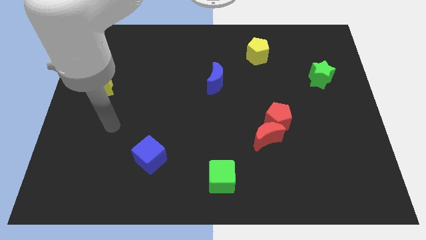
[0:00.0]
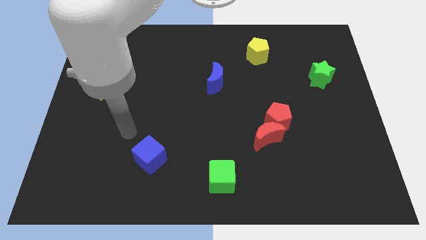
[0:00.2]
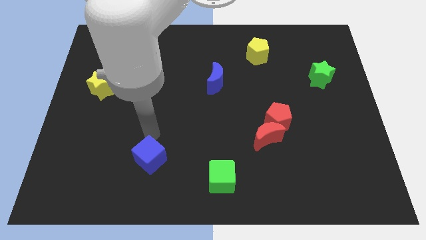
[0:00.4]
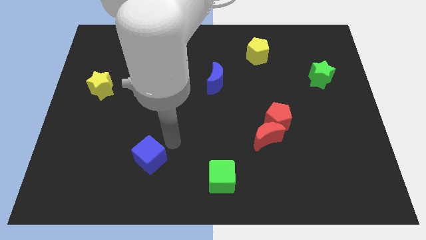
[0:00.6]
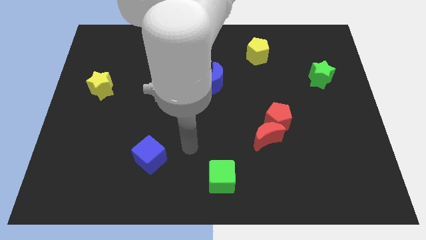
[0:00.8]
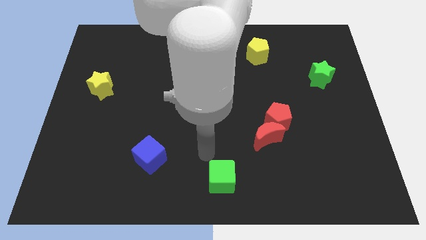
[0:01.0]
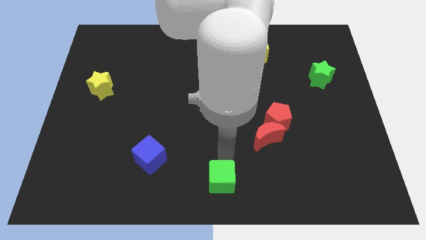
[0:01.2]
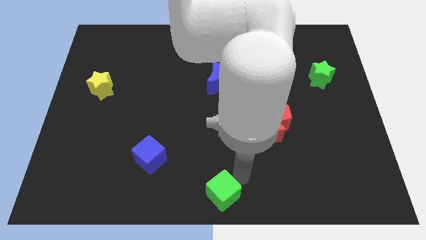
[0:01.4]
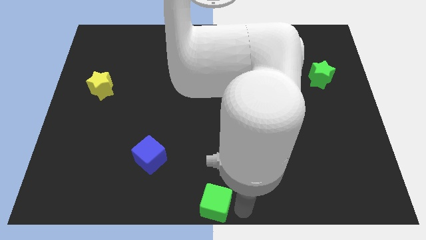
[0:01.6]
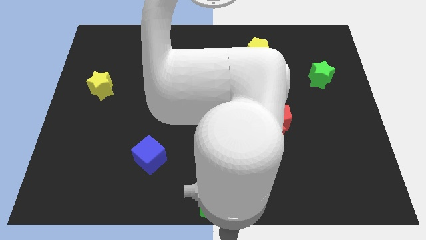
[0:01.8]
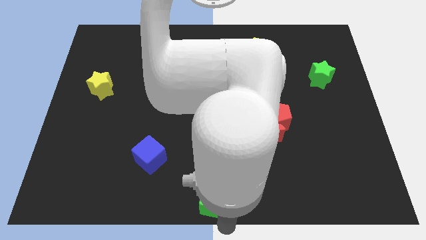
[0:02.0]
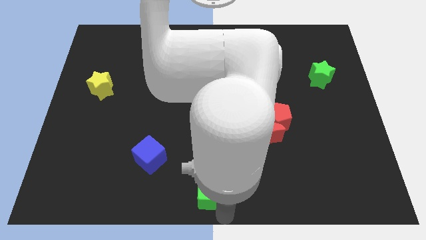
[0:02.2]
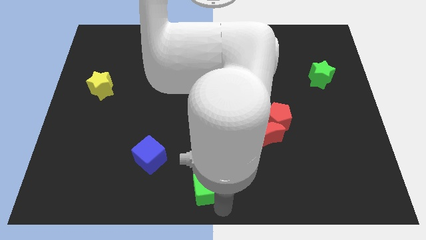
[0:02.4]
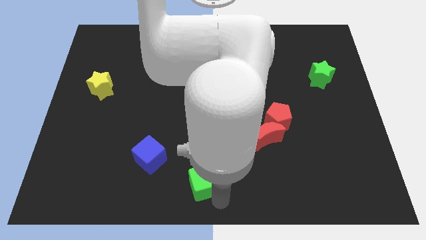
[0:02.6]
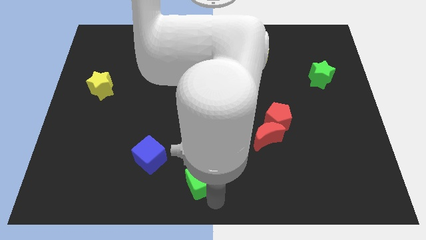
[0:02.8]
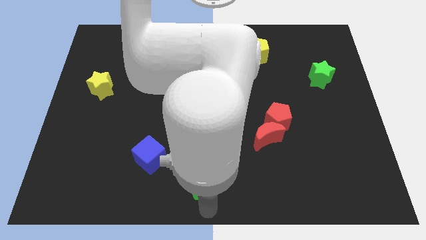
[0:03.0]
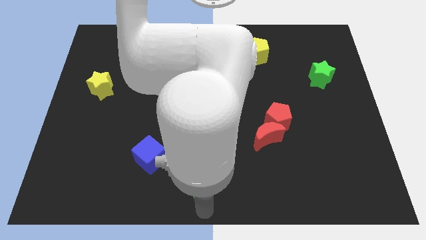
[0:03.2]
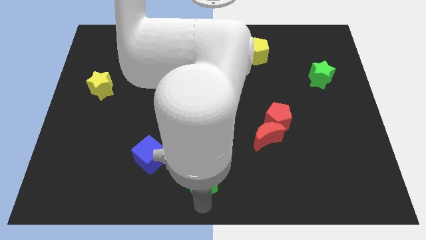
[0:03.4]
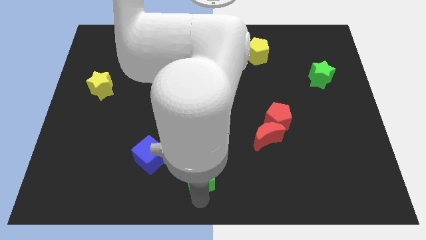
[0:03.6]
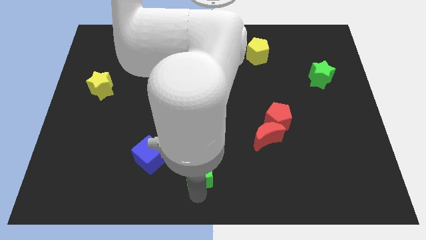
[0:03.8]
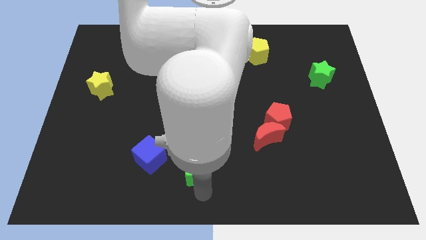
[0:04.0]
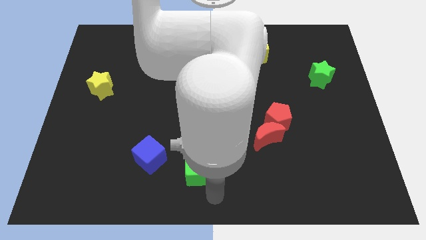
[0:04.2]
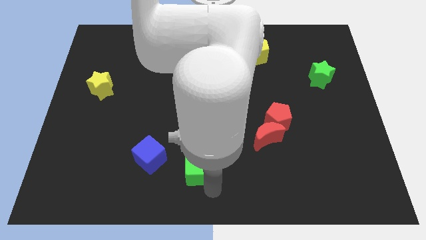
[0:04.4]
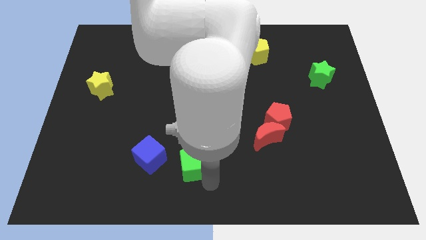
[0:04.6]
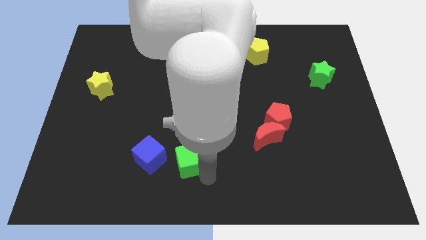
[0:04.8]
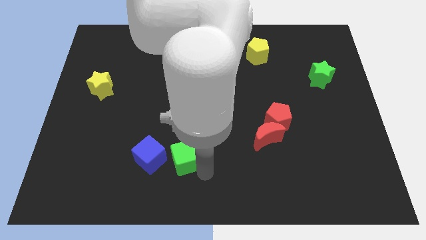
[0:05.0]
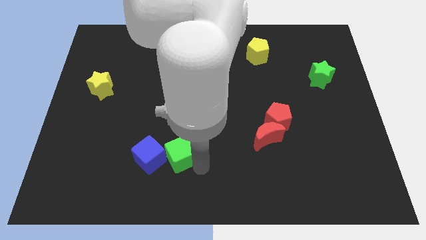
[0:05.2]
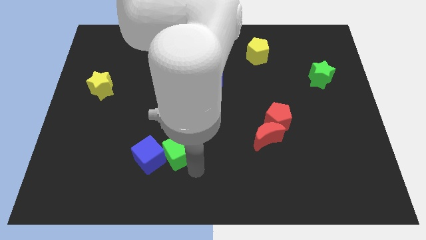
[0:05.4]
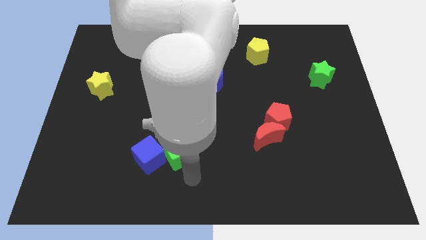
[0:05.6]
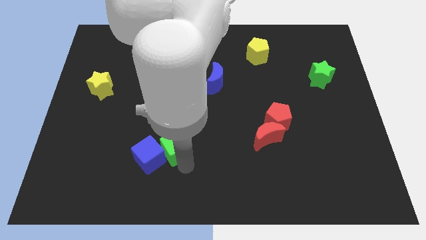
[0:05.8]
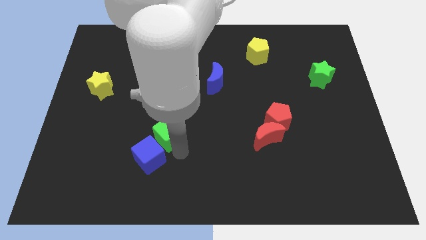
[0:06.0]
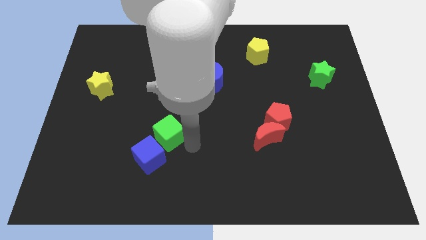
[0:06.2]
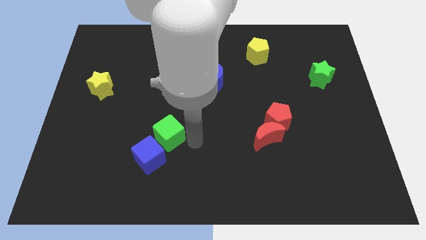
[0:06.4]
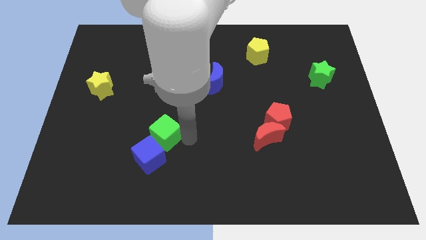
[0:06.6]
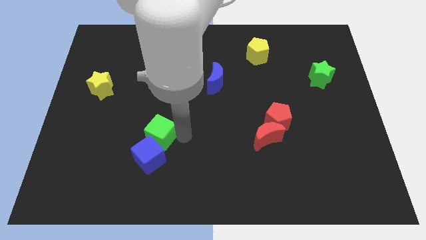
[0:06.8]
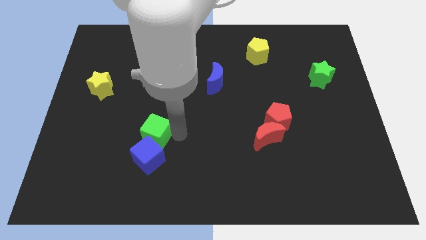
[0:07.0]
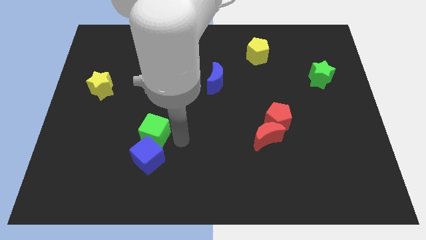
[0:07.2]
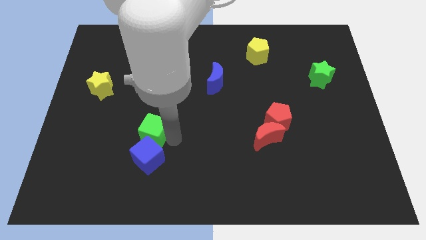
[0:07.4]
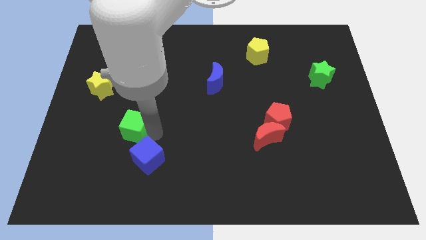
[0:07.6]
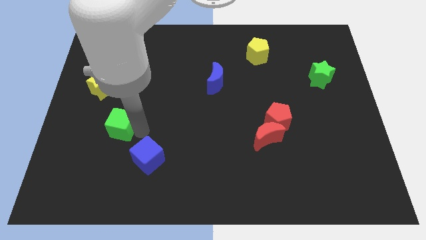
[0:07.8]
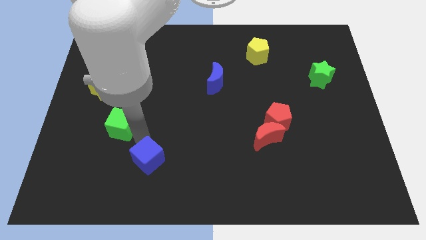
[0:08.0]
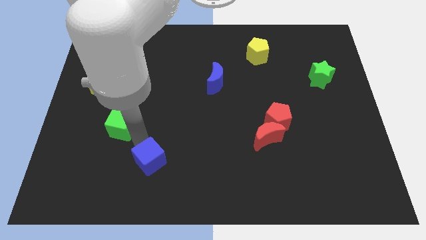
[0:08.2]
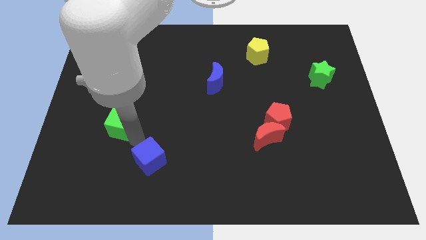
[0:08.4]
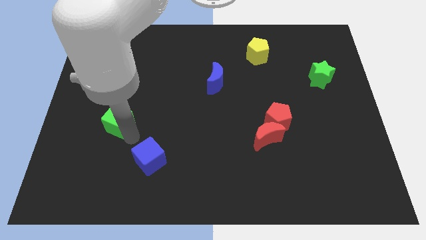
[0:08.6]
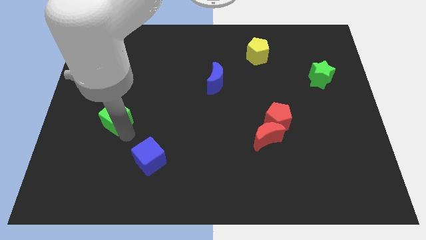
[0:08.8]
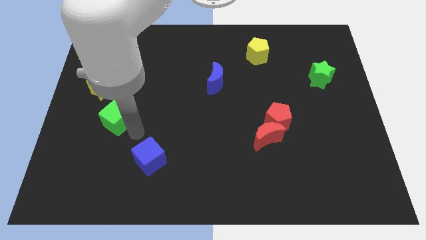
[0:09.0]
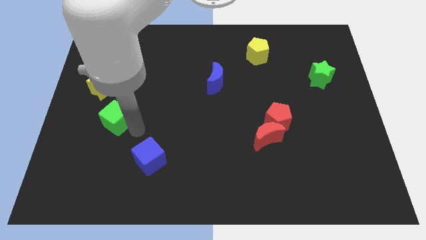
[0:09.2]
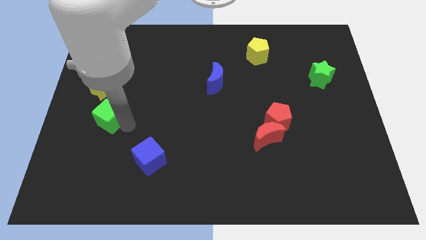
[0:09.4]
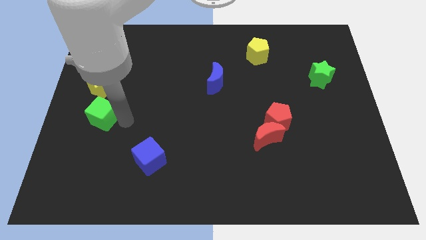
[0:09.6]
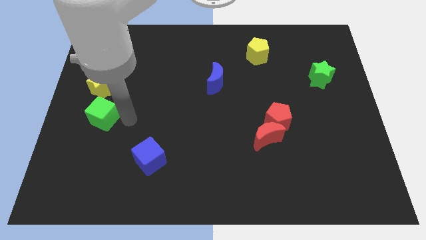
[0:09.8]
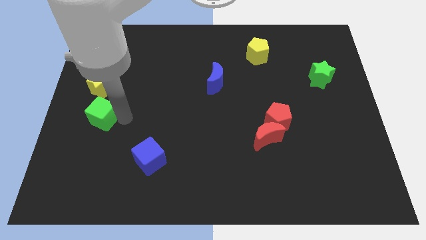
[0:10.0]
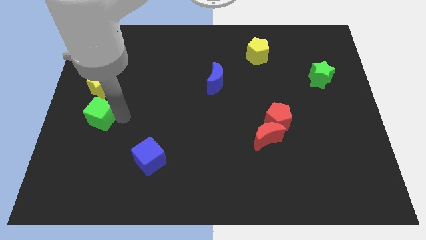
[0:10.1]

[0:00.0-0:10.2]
put the green cube to the left side of the board

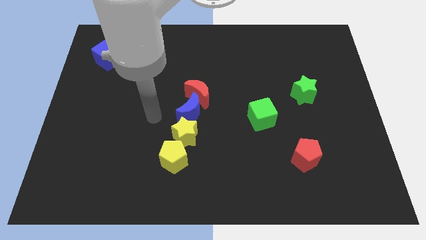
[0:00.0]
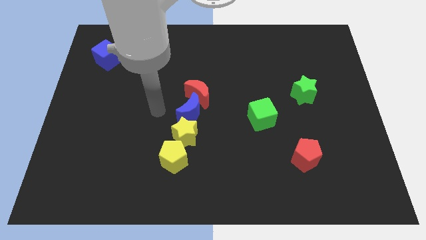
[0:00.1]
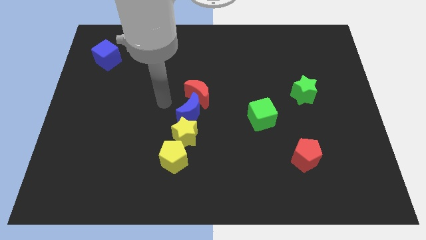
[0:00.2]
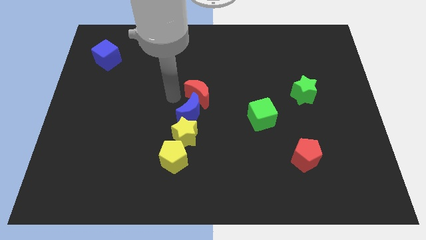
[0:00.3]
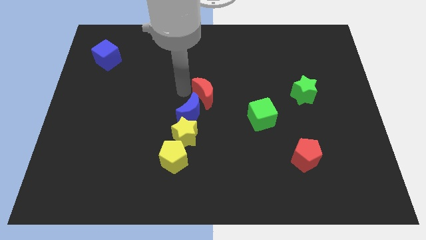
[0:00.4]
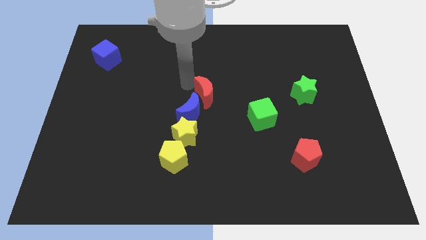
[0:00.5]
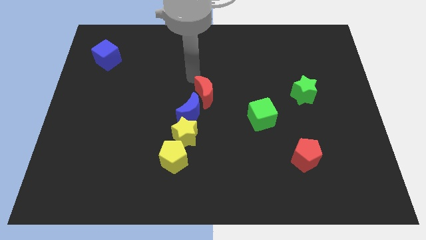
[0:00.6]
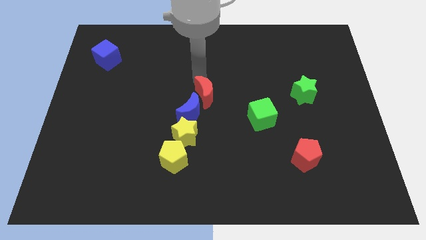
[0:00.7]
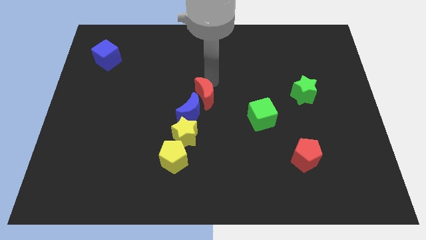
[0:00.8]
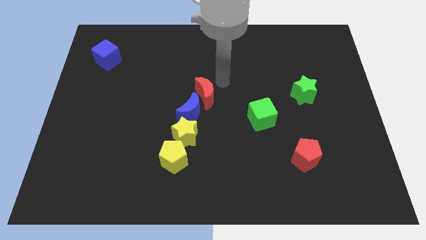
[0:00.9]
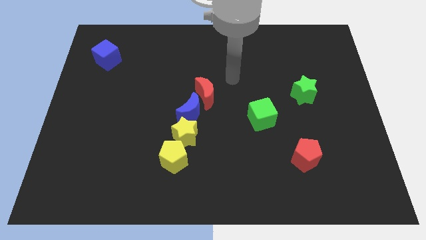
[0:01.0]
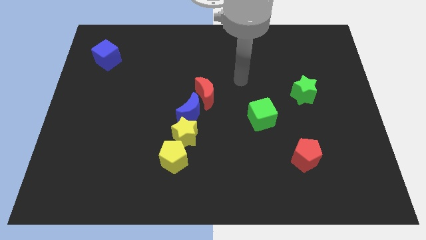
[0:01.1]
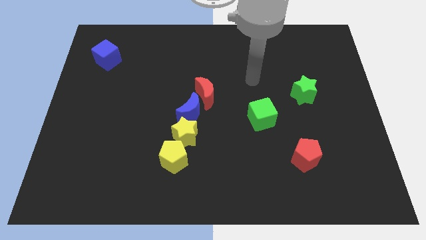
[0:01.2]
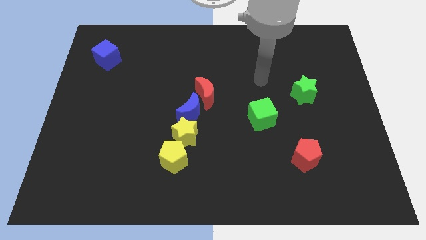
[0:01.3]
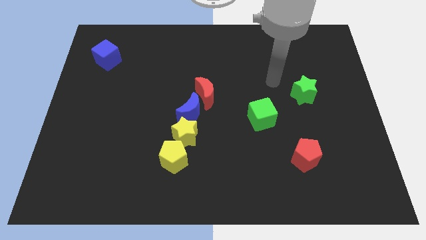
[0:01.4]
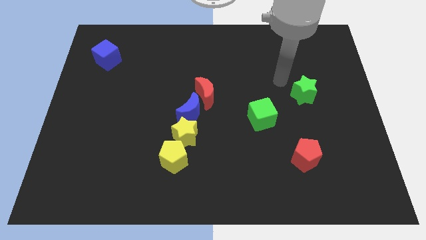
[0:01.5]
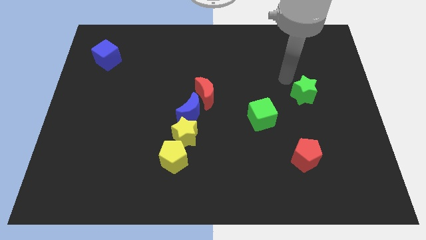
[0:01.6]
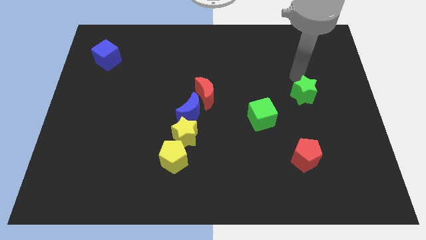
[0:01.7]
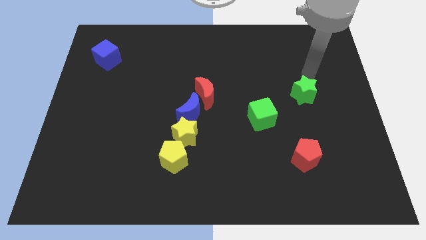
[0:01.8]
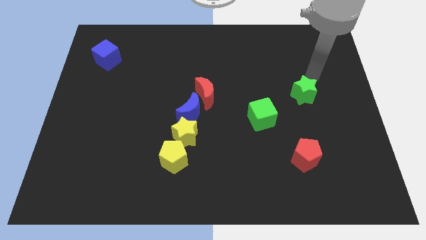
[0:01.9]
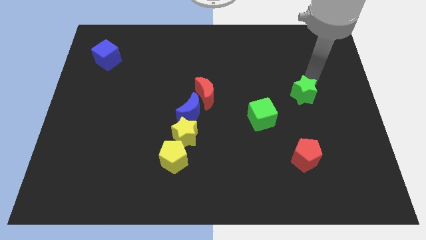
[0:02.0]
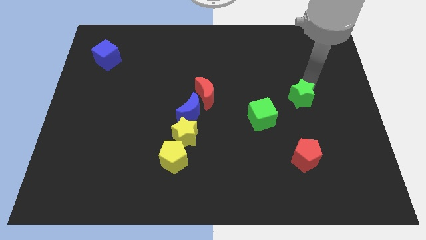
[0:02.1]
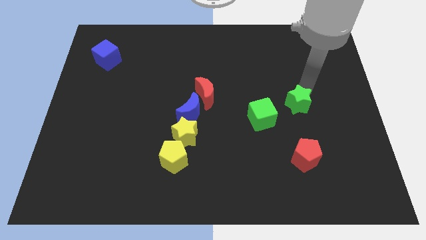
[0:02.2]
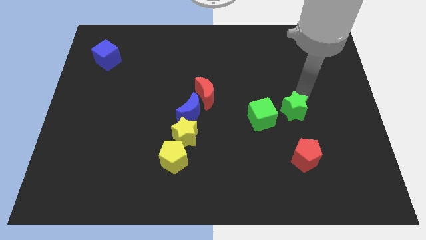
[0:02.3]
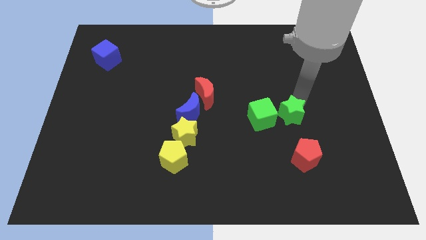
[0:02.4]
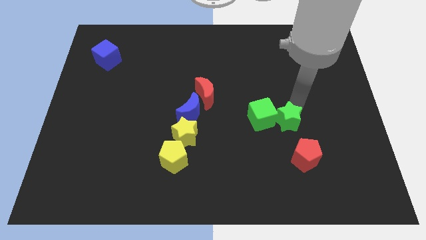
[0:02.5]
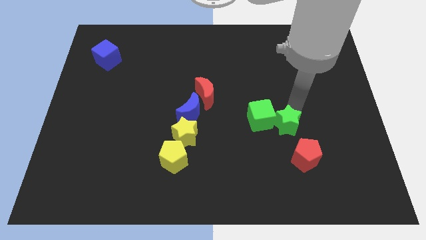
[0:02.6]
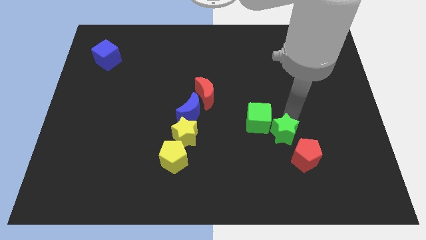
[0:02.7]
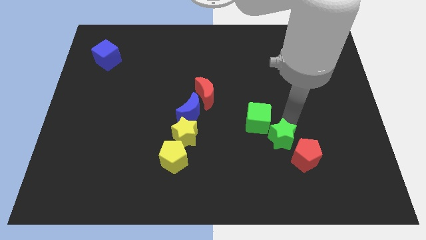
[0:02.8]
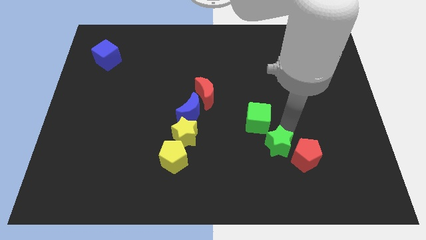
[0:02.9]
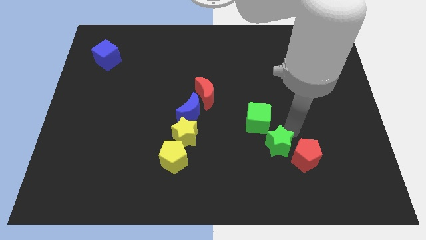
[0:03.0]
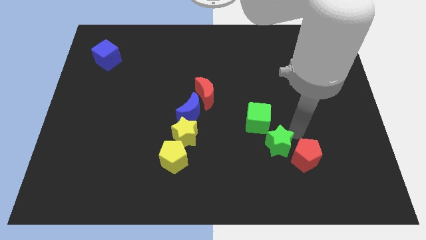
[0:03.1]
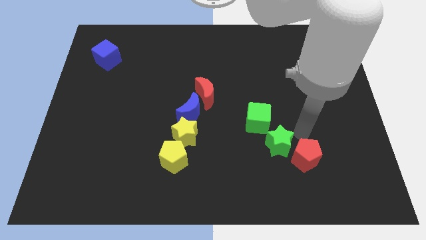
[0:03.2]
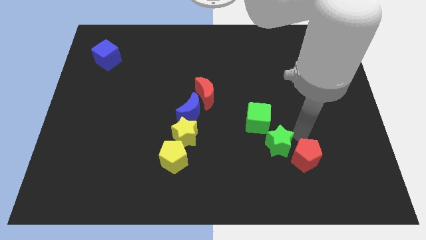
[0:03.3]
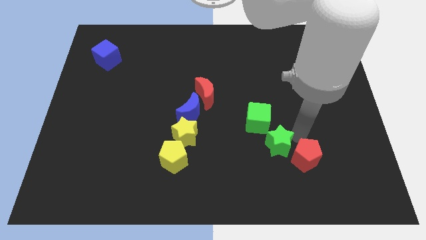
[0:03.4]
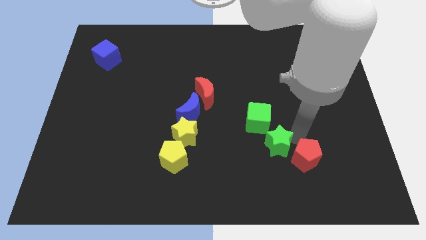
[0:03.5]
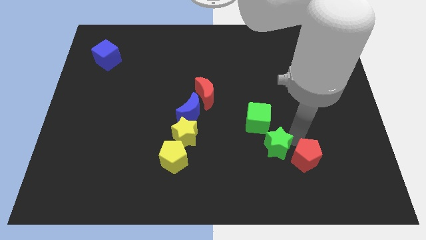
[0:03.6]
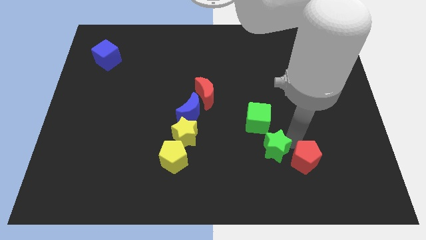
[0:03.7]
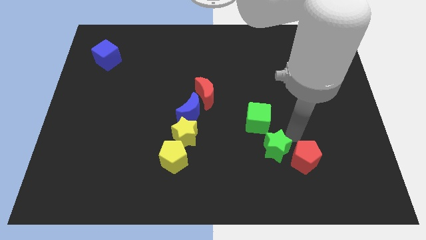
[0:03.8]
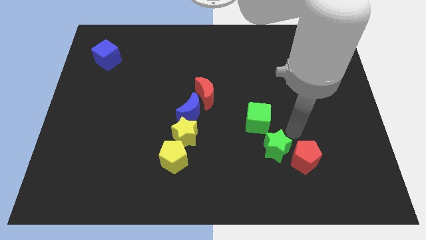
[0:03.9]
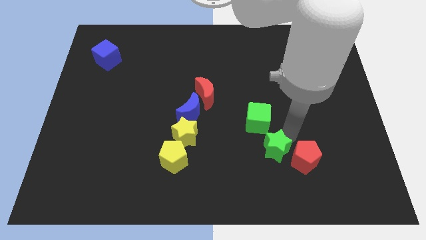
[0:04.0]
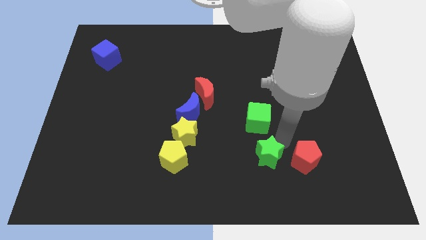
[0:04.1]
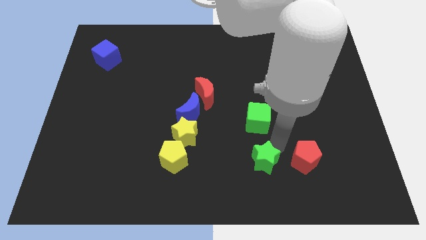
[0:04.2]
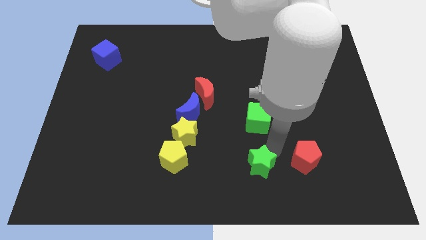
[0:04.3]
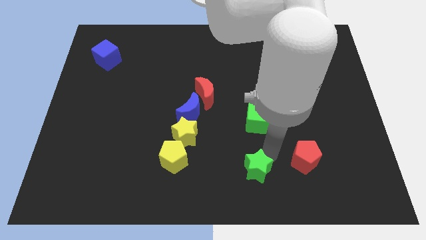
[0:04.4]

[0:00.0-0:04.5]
put the green star to the bottom side
